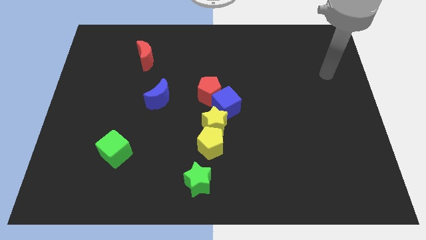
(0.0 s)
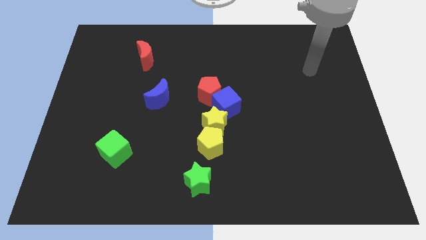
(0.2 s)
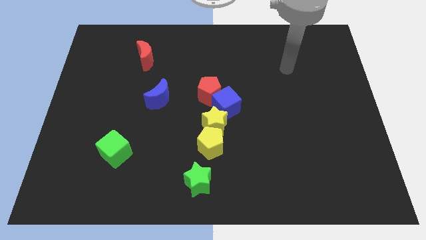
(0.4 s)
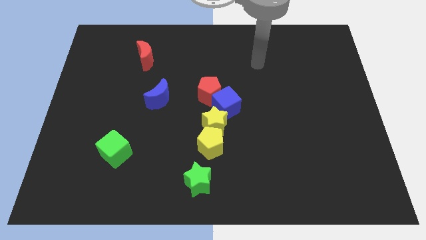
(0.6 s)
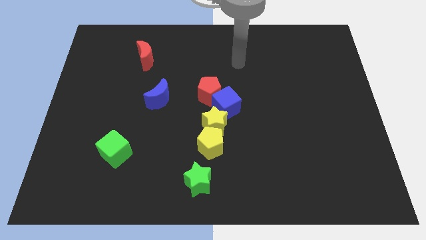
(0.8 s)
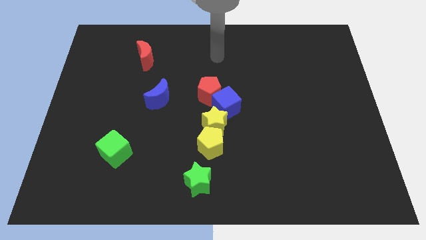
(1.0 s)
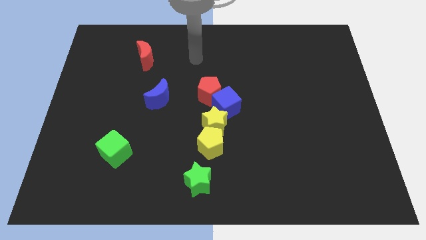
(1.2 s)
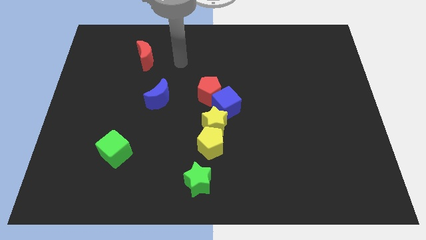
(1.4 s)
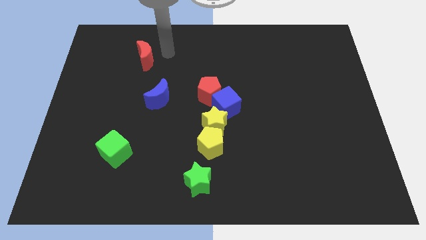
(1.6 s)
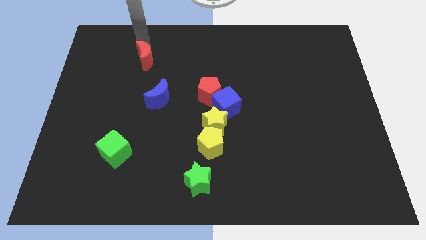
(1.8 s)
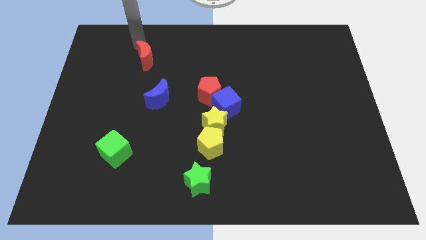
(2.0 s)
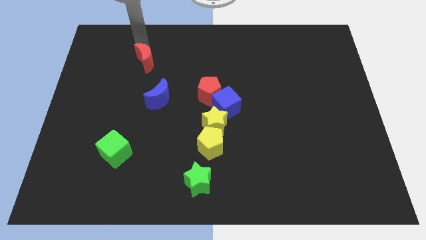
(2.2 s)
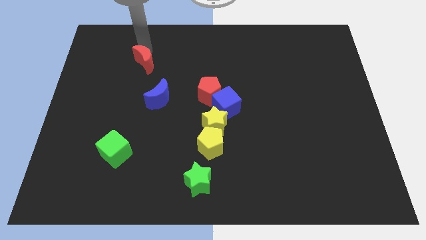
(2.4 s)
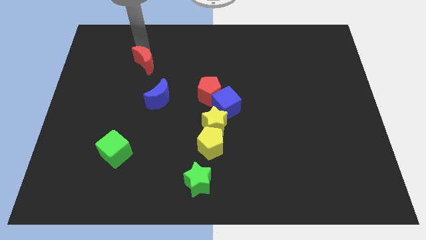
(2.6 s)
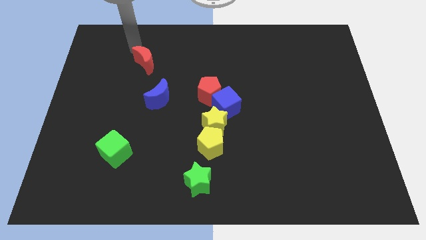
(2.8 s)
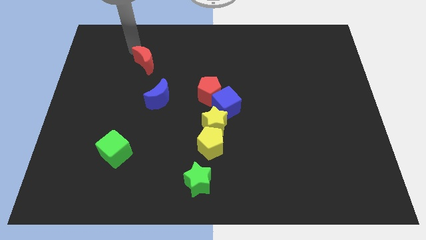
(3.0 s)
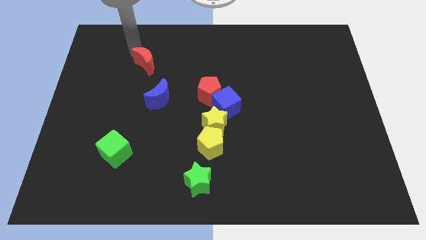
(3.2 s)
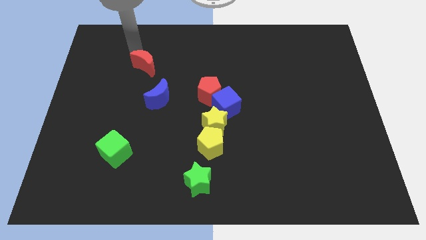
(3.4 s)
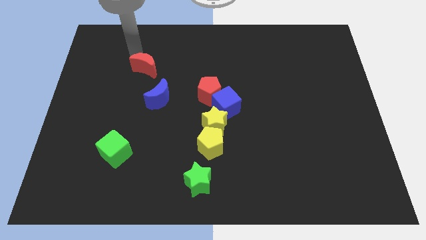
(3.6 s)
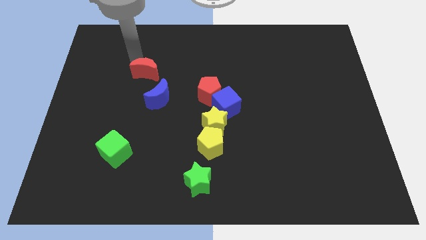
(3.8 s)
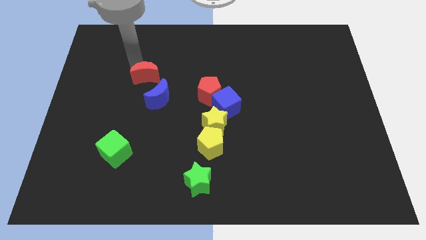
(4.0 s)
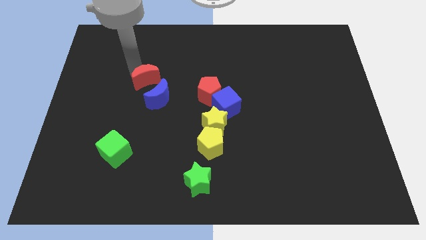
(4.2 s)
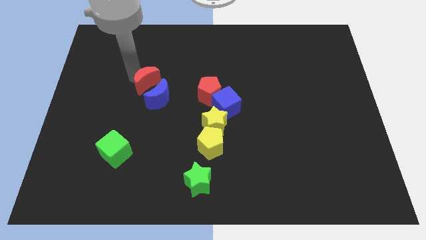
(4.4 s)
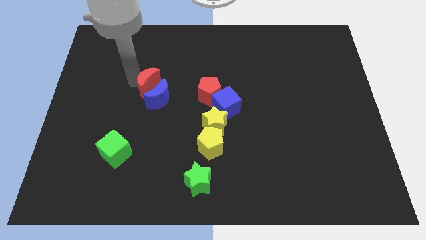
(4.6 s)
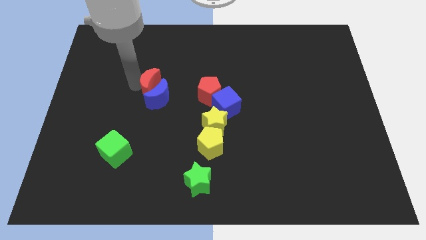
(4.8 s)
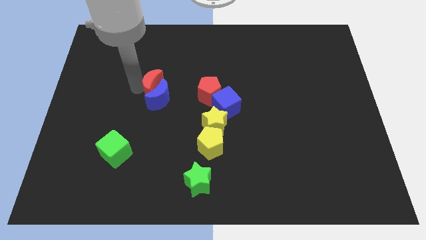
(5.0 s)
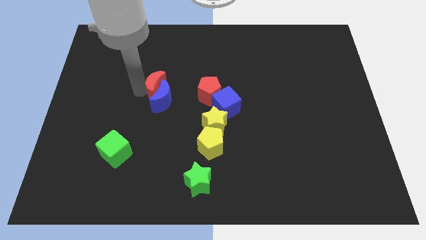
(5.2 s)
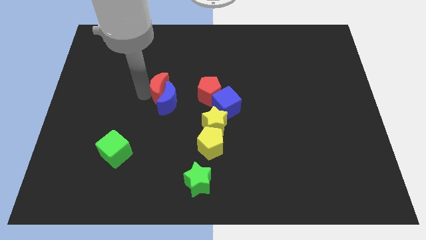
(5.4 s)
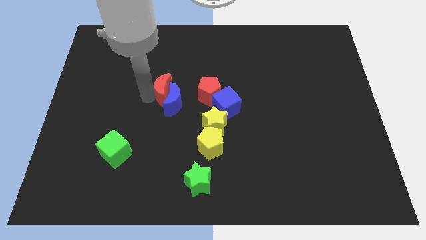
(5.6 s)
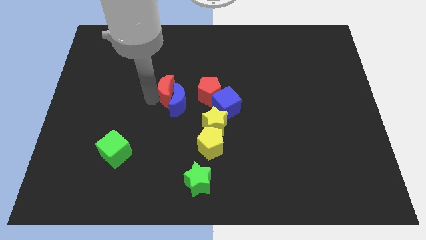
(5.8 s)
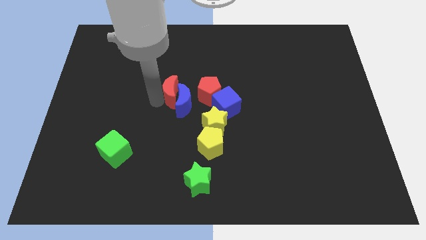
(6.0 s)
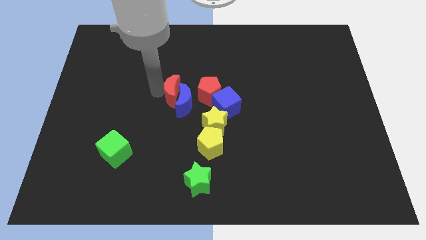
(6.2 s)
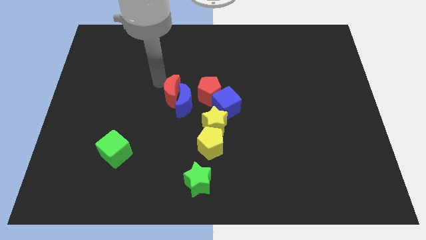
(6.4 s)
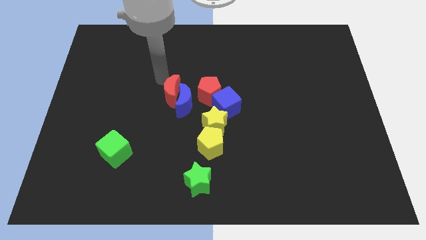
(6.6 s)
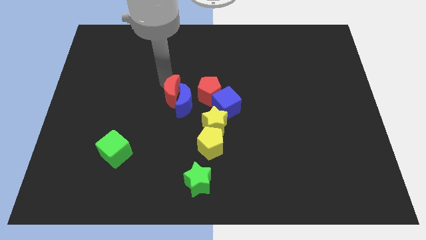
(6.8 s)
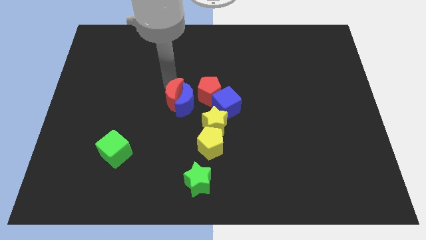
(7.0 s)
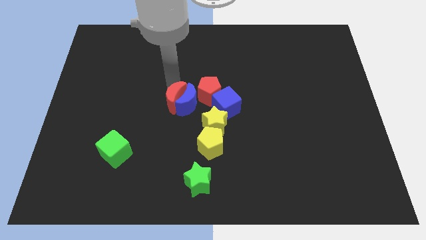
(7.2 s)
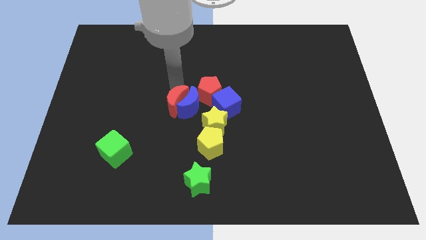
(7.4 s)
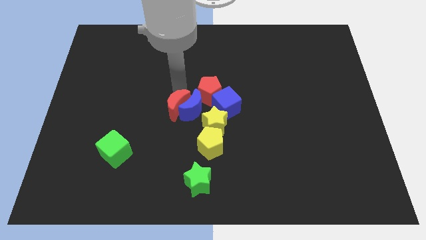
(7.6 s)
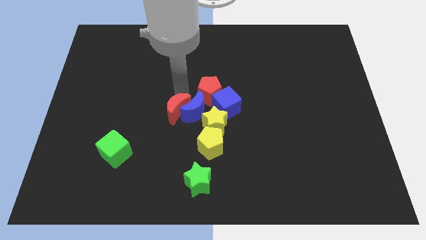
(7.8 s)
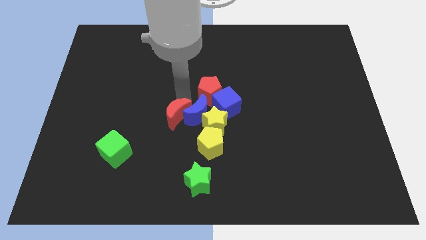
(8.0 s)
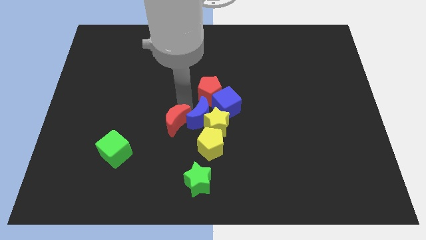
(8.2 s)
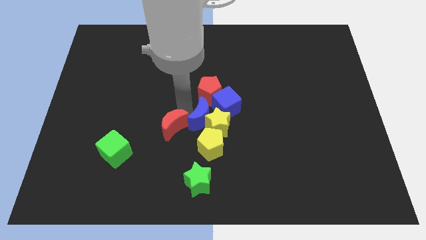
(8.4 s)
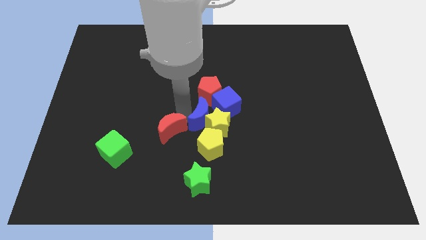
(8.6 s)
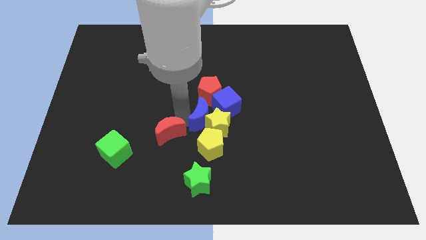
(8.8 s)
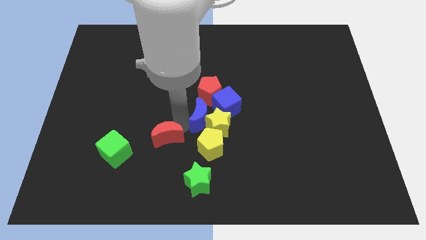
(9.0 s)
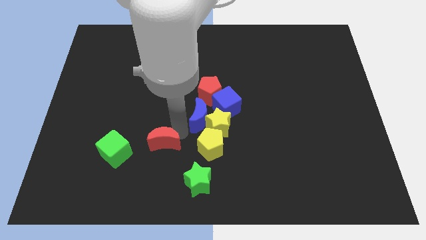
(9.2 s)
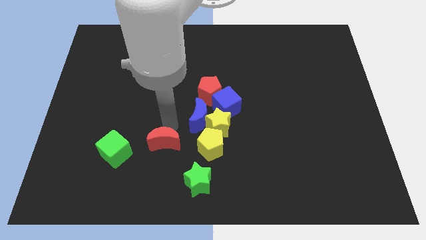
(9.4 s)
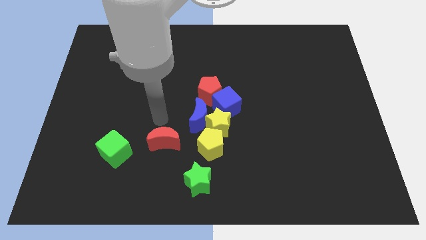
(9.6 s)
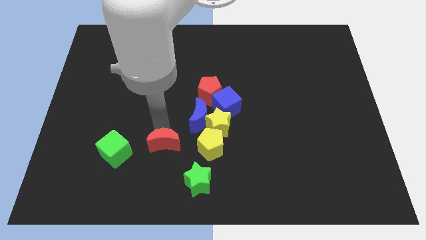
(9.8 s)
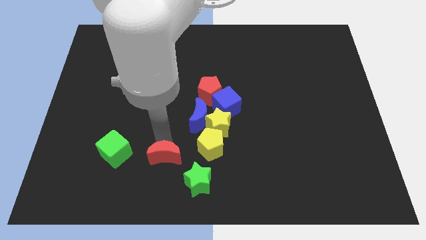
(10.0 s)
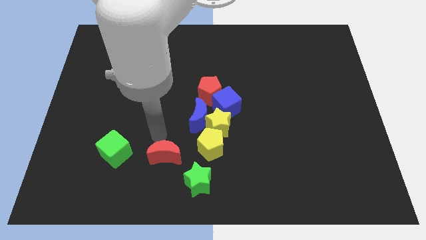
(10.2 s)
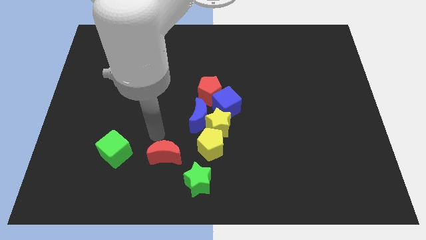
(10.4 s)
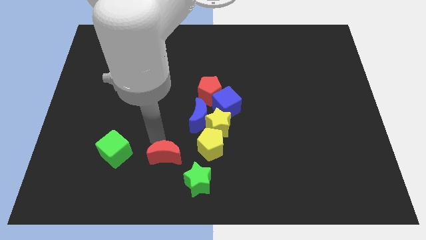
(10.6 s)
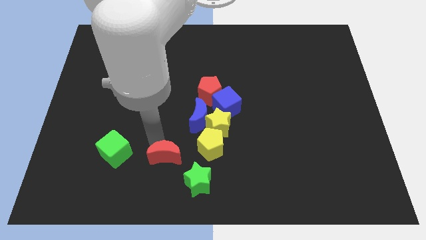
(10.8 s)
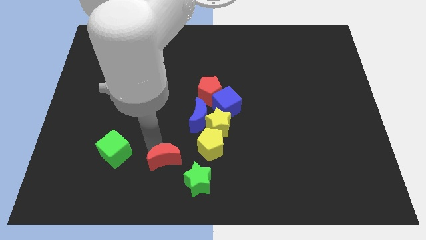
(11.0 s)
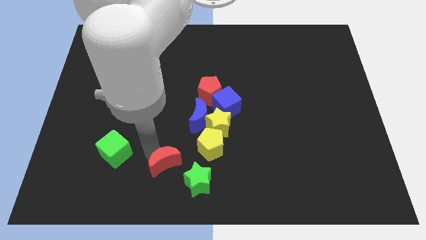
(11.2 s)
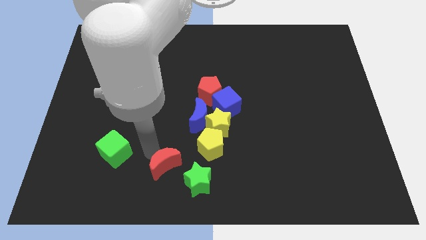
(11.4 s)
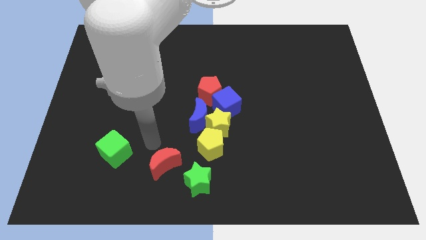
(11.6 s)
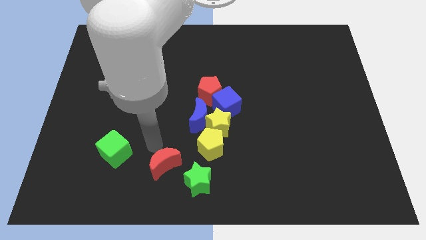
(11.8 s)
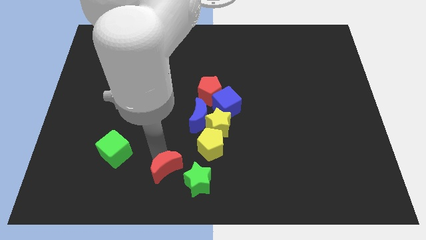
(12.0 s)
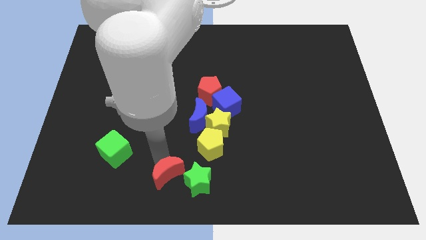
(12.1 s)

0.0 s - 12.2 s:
push the red moon to the bottom

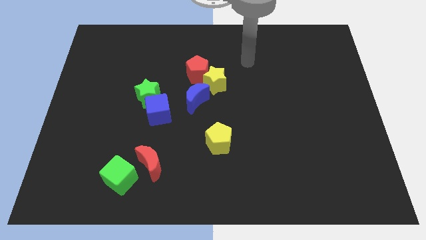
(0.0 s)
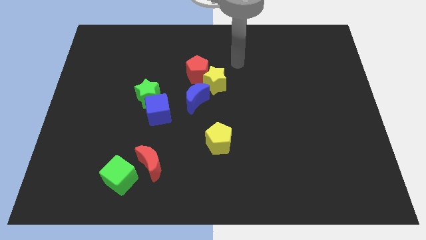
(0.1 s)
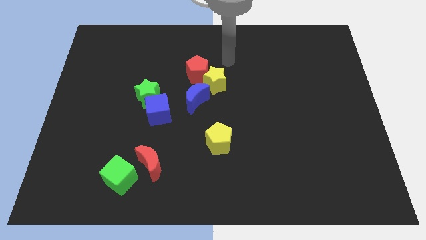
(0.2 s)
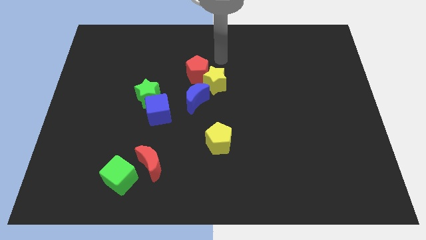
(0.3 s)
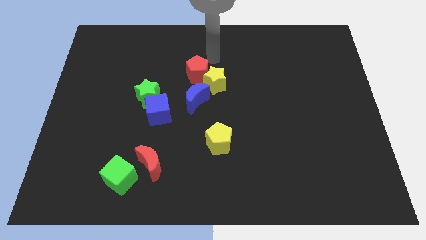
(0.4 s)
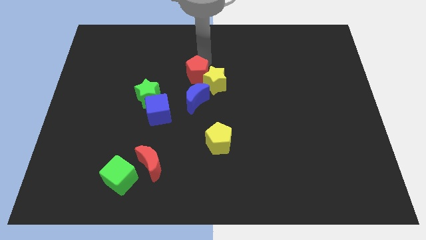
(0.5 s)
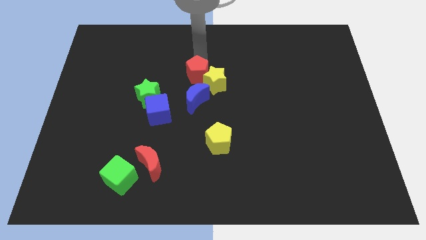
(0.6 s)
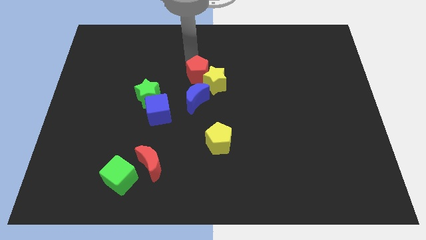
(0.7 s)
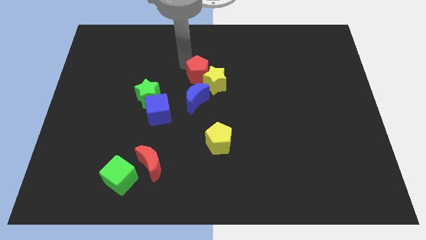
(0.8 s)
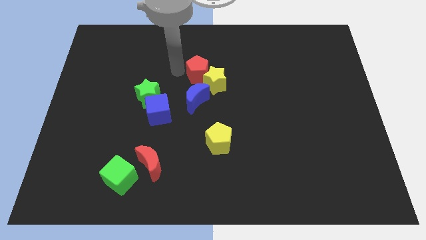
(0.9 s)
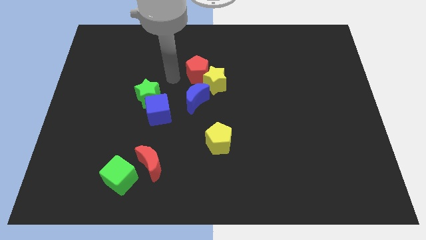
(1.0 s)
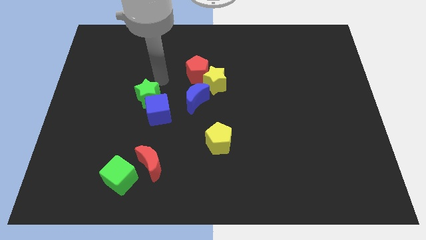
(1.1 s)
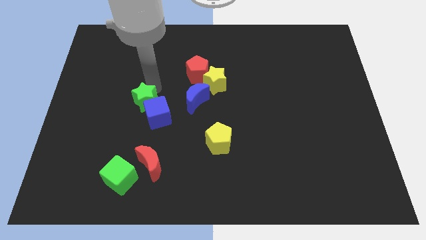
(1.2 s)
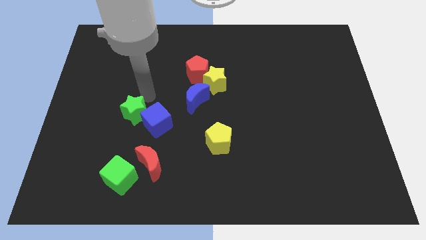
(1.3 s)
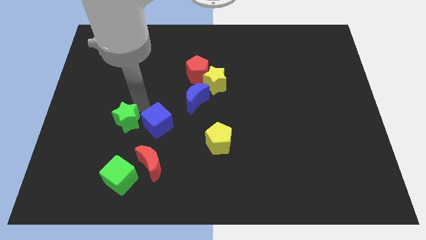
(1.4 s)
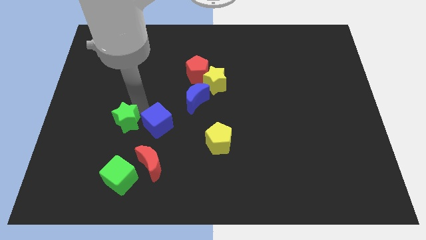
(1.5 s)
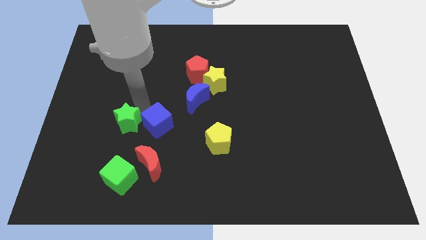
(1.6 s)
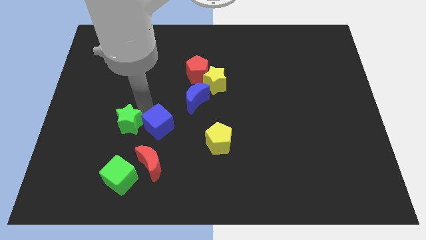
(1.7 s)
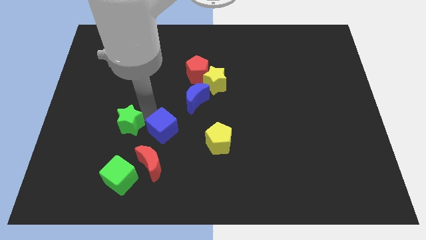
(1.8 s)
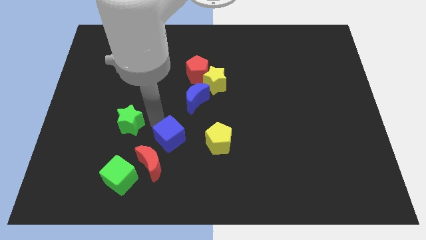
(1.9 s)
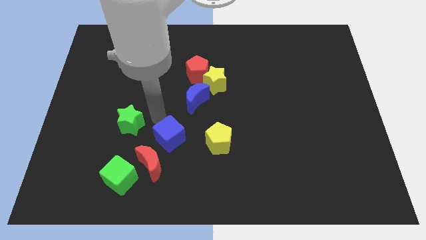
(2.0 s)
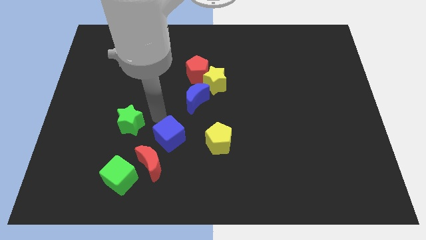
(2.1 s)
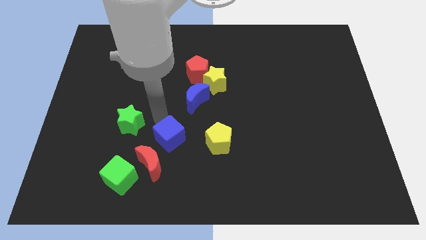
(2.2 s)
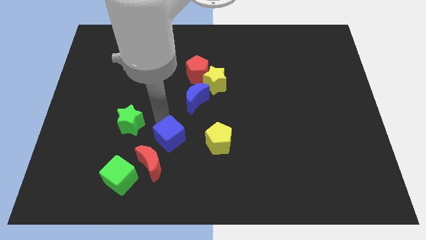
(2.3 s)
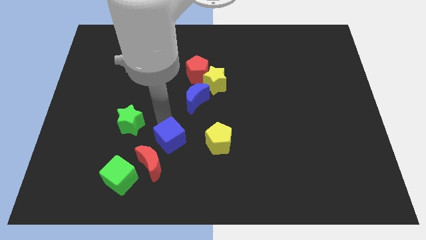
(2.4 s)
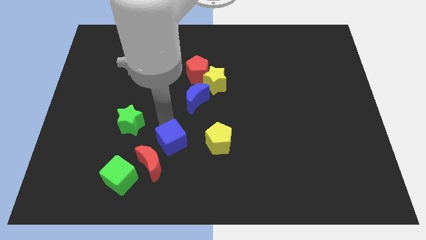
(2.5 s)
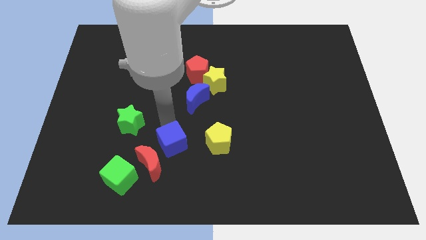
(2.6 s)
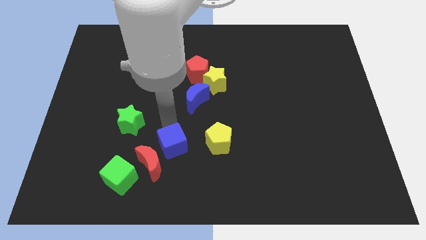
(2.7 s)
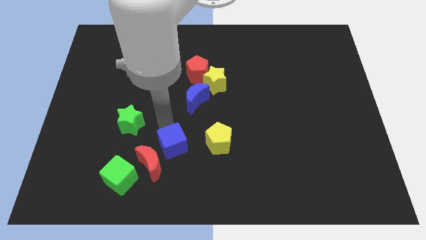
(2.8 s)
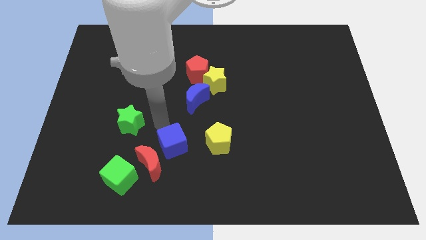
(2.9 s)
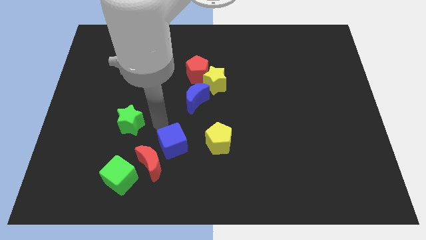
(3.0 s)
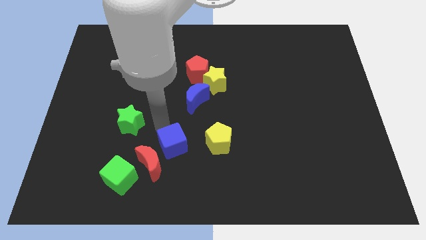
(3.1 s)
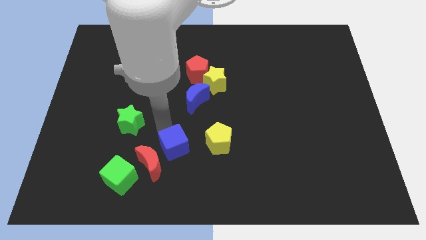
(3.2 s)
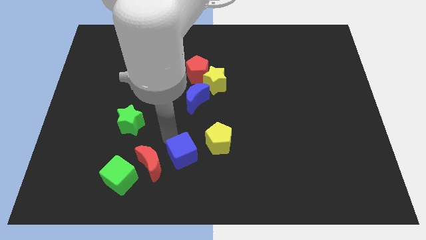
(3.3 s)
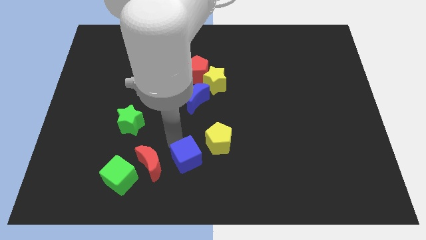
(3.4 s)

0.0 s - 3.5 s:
put the blue cube to the bottom
